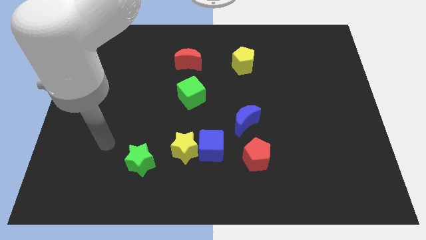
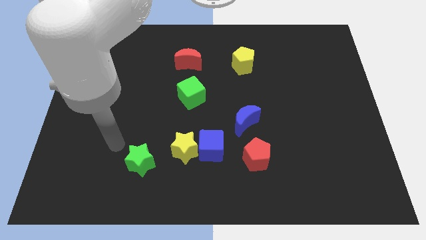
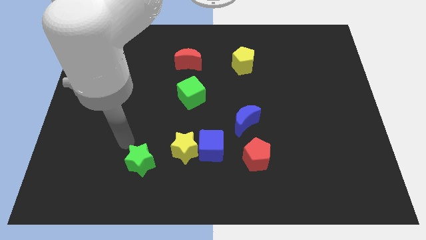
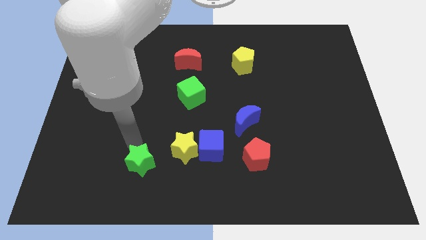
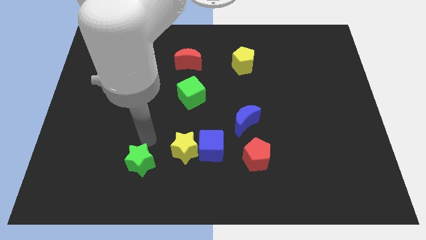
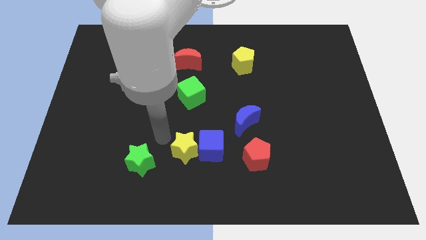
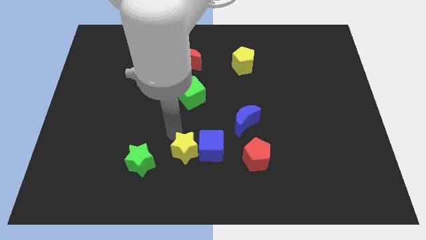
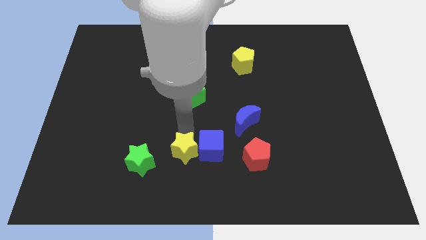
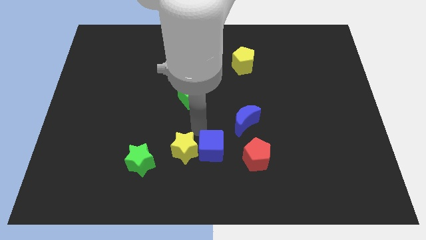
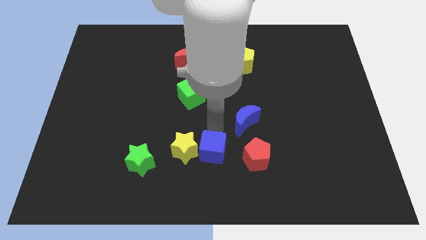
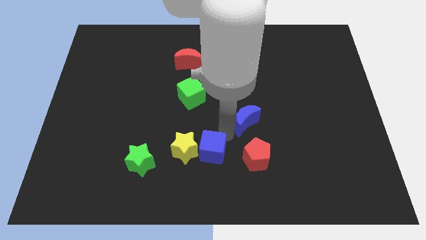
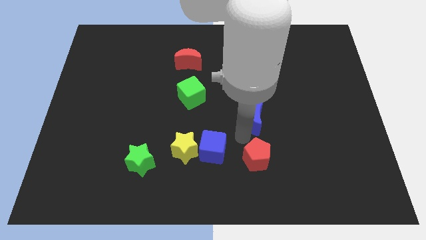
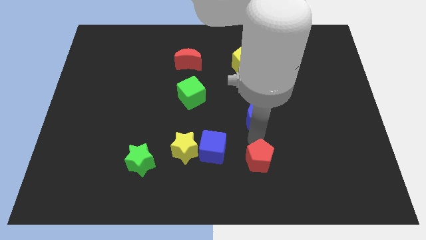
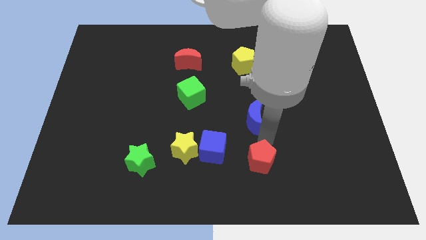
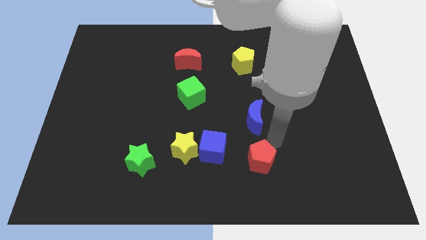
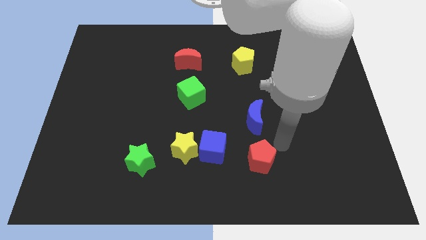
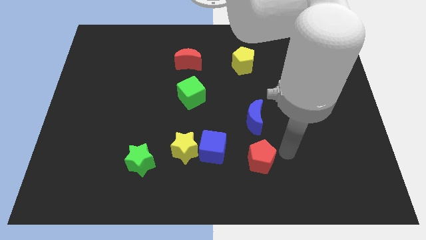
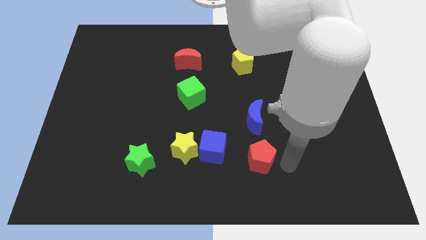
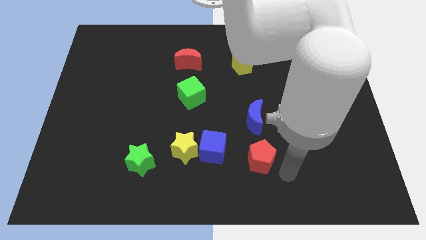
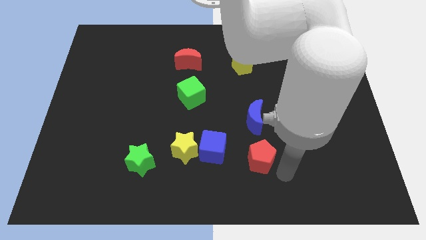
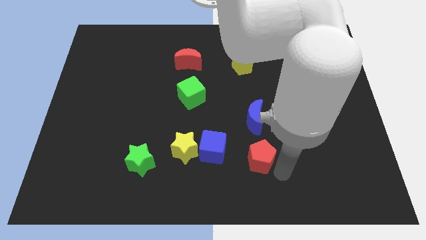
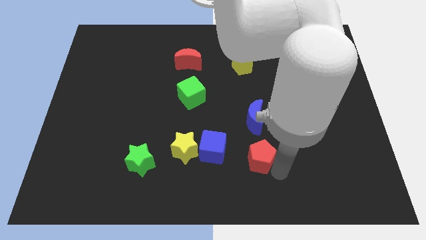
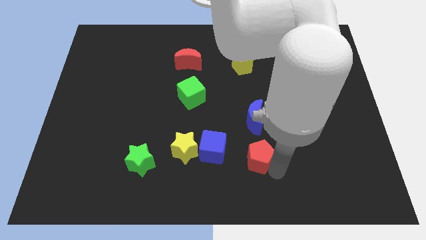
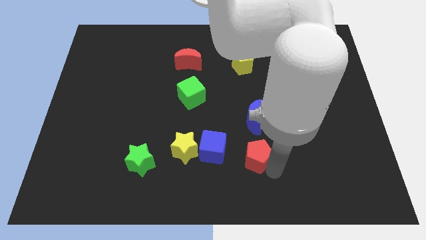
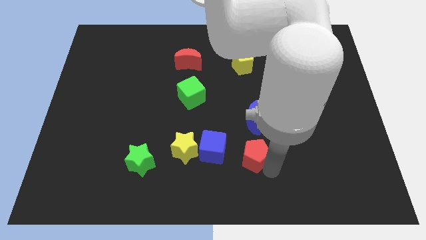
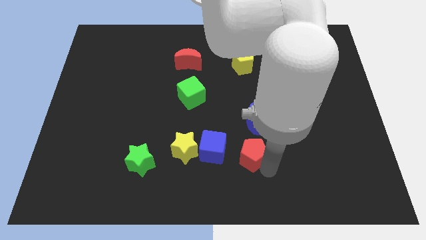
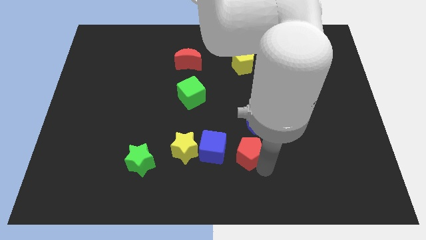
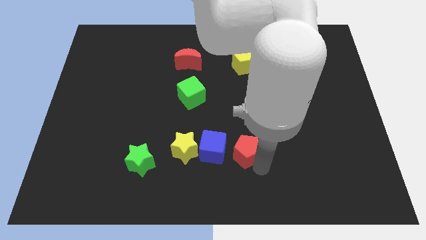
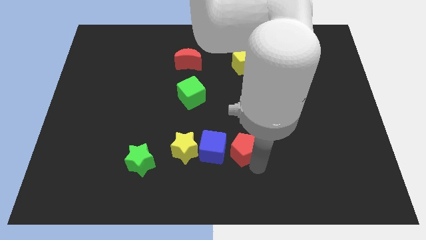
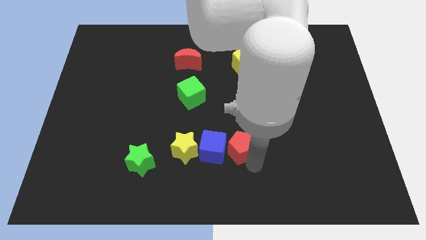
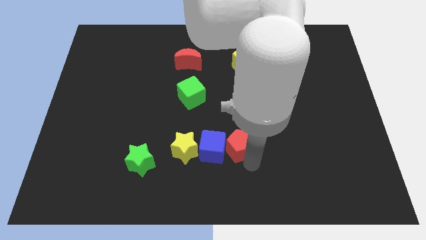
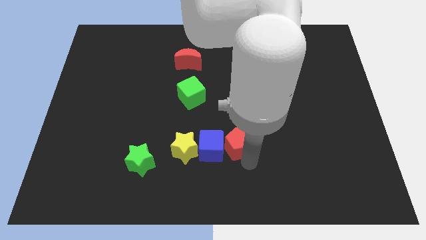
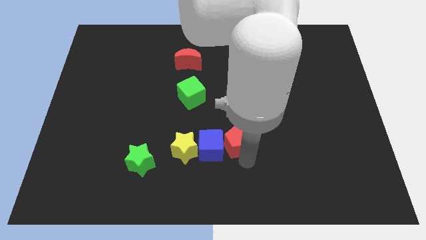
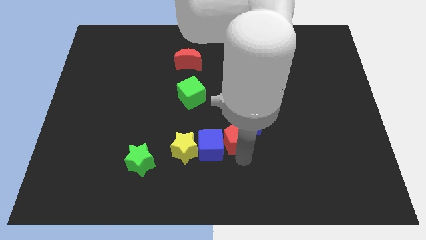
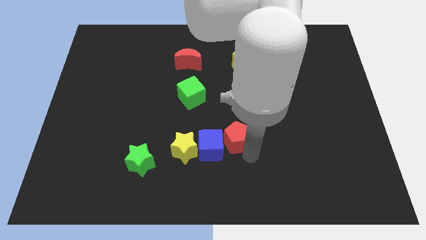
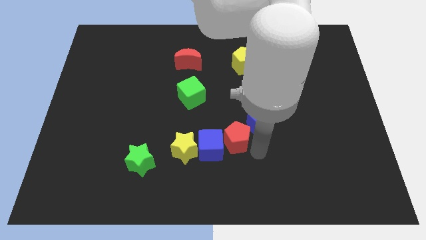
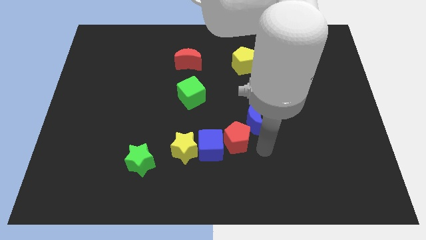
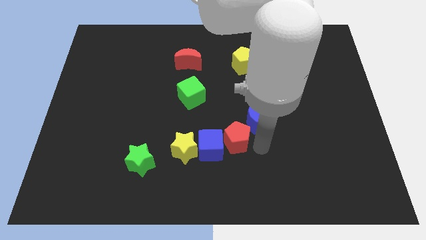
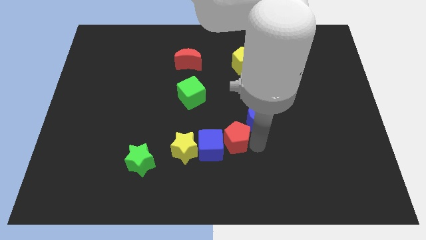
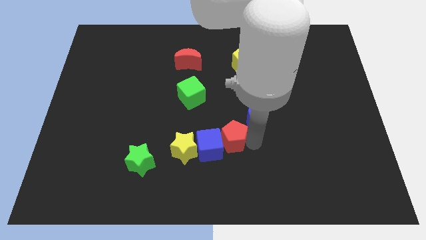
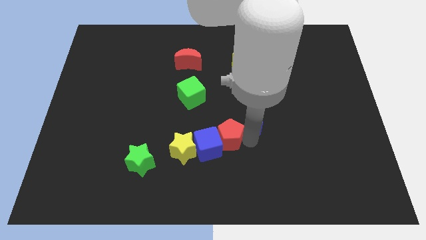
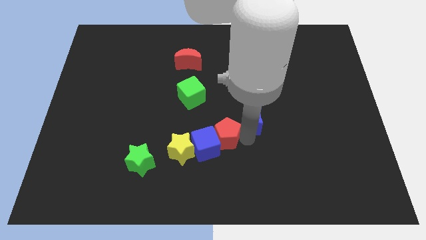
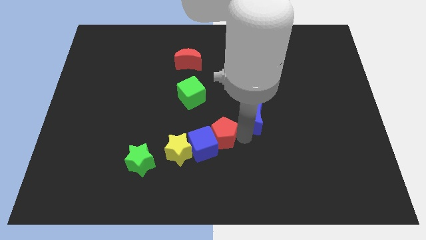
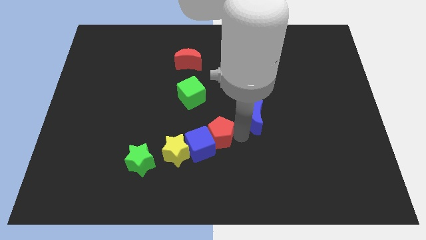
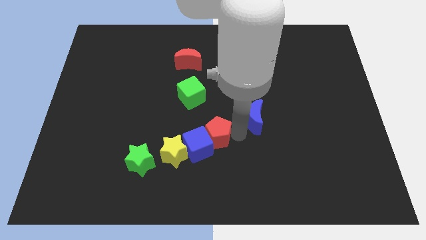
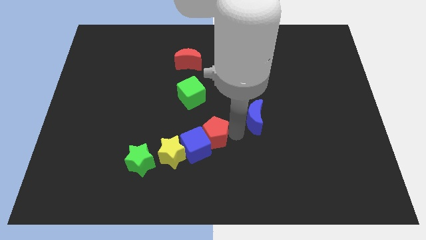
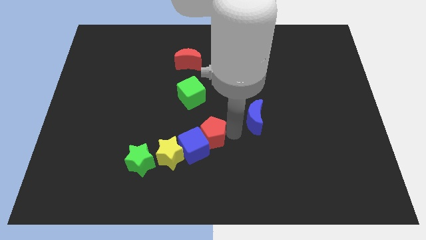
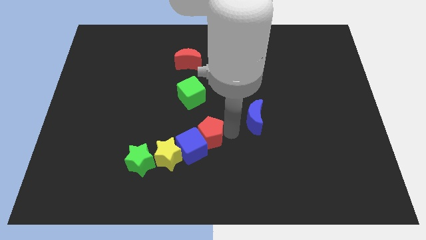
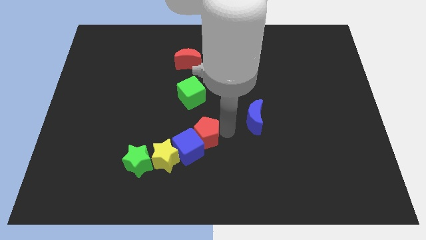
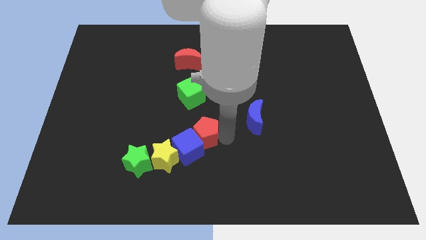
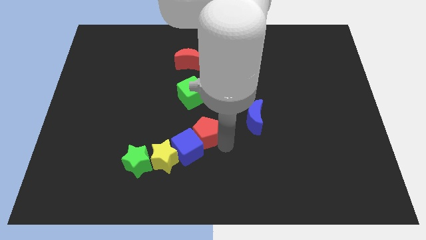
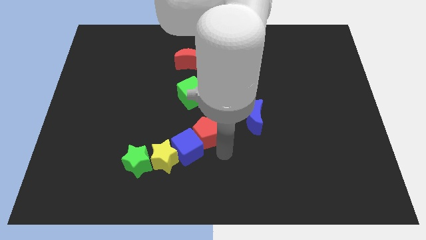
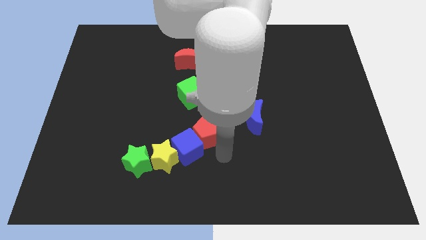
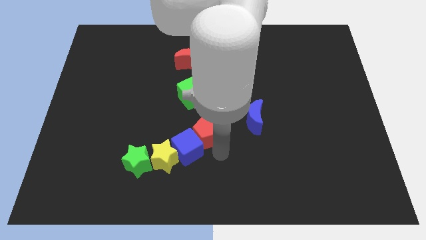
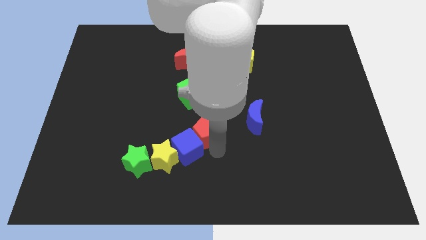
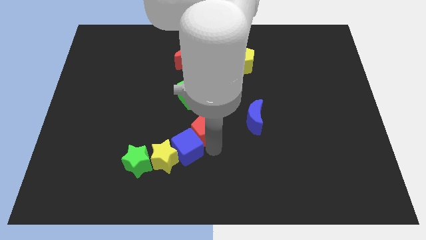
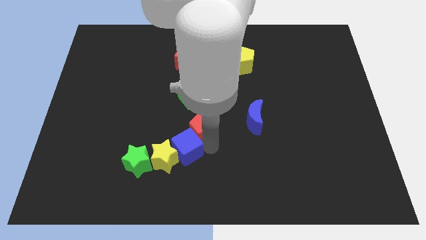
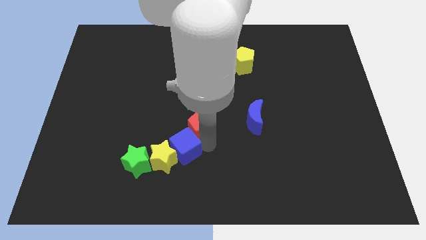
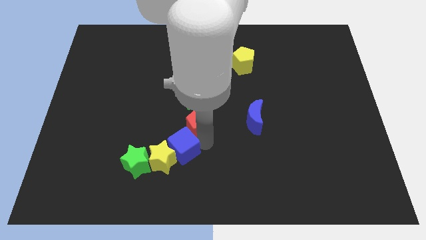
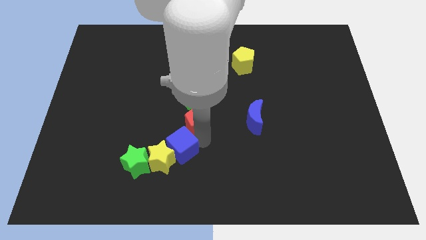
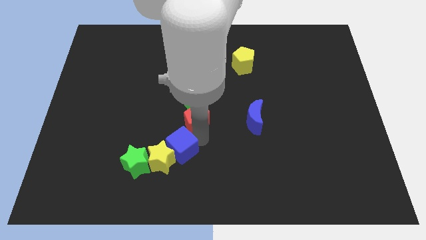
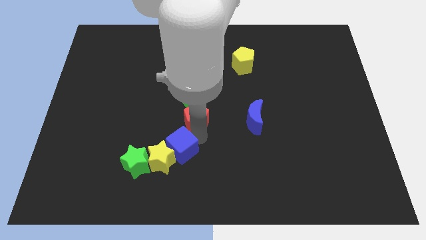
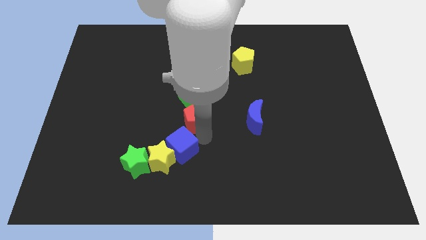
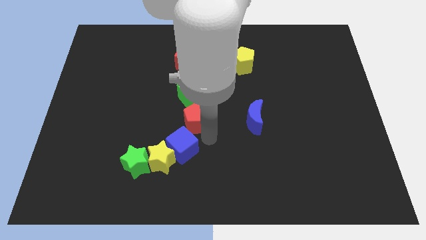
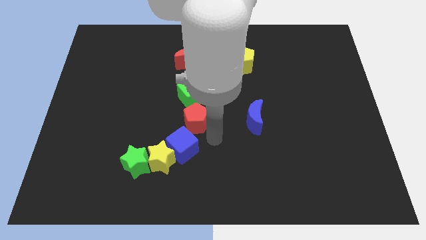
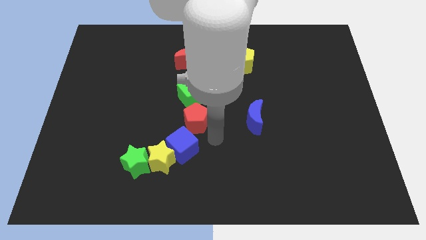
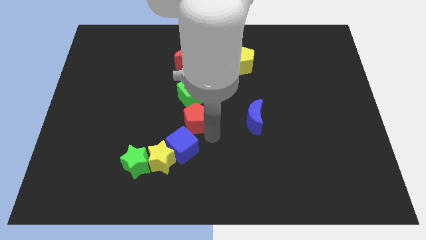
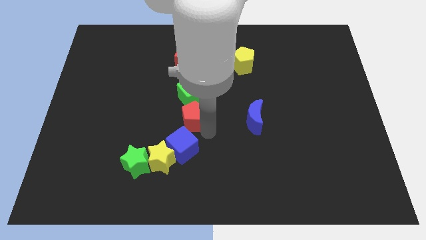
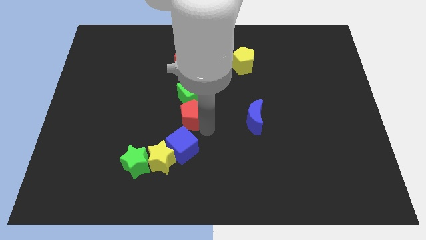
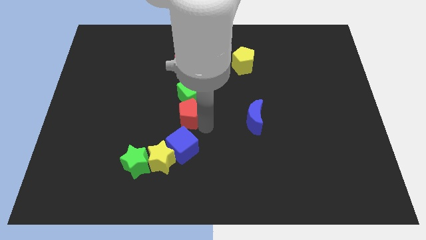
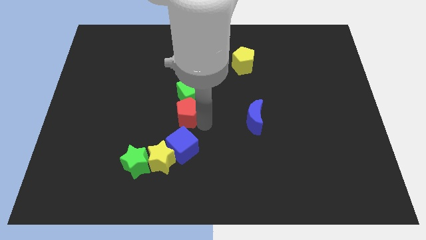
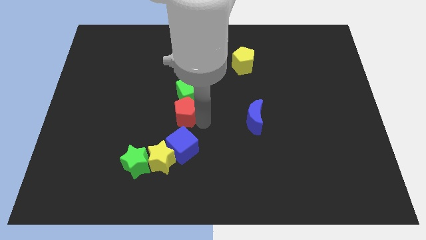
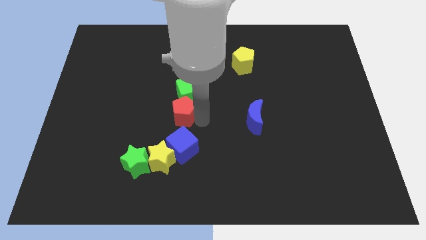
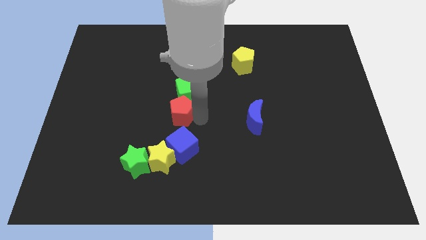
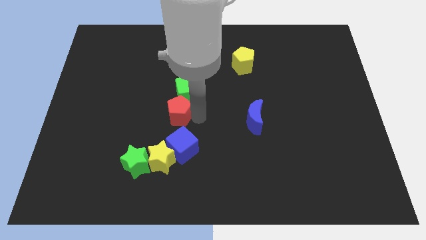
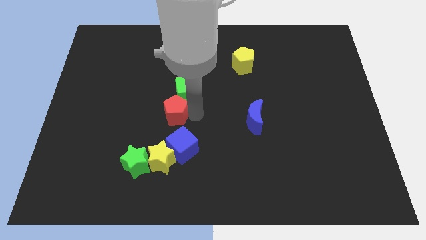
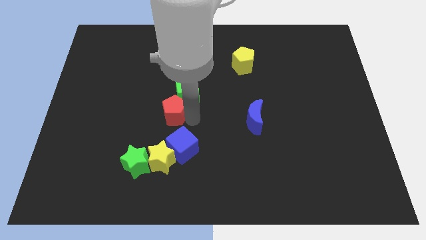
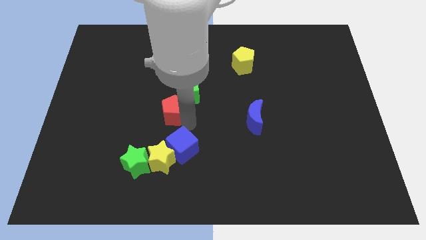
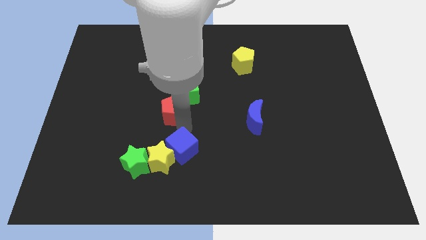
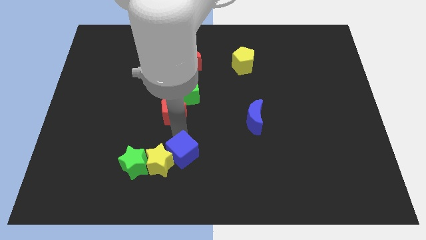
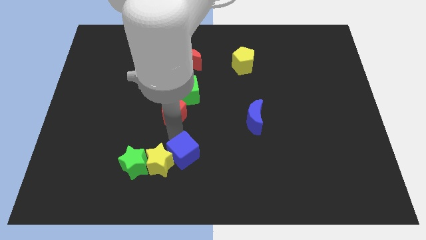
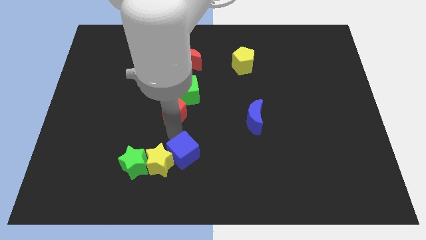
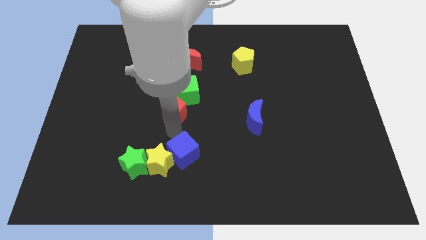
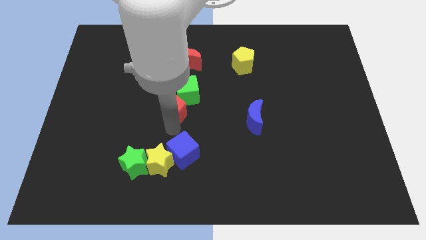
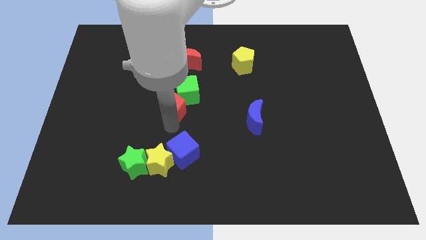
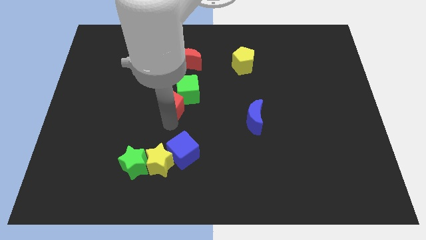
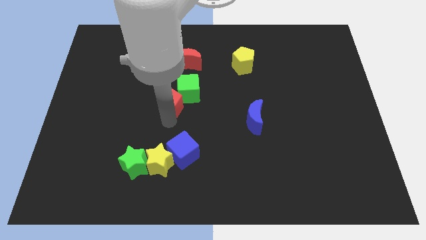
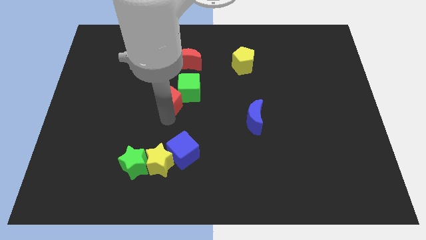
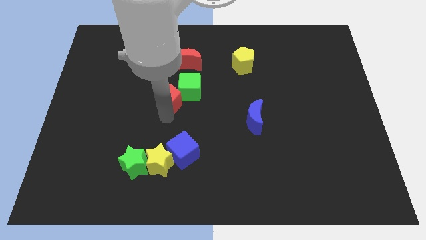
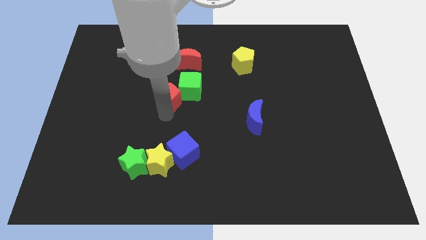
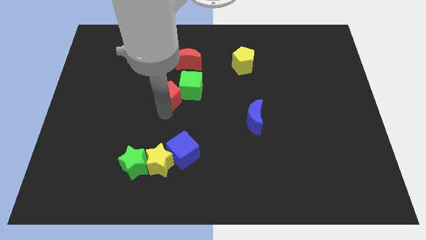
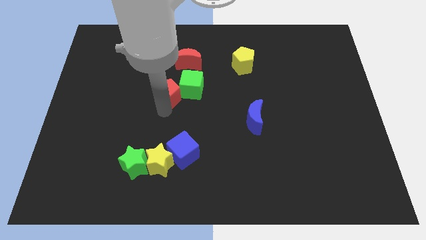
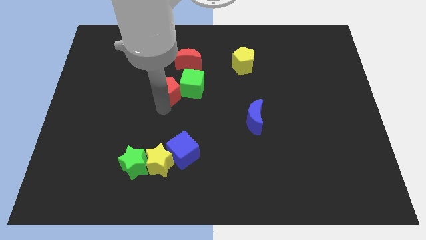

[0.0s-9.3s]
slide the red pentagon to the bottom left side of the red moon
